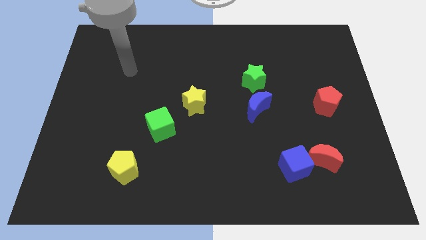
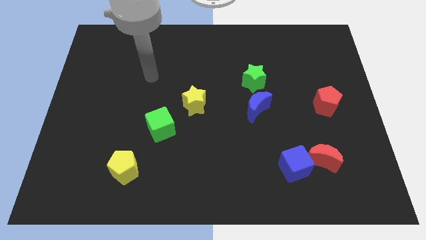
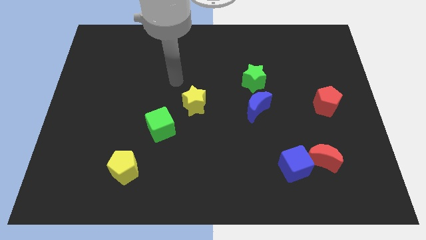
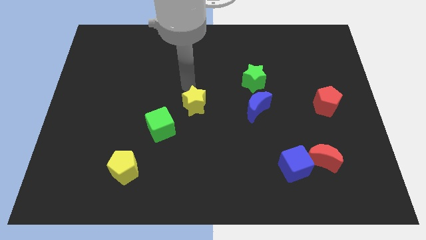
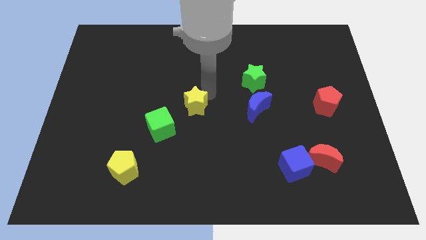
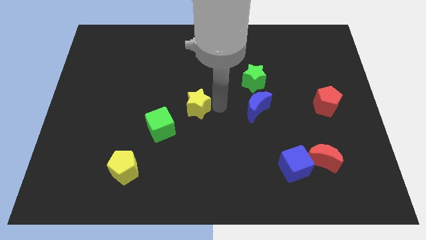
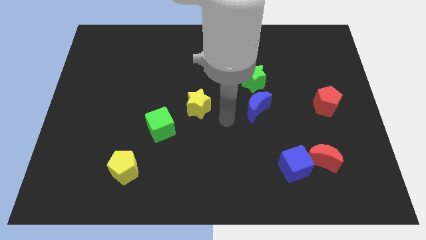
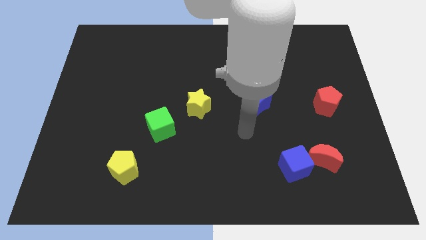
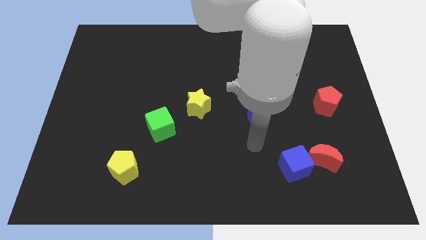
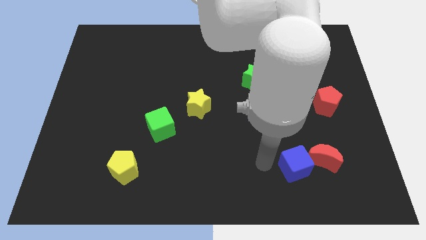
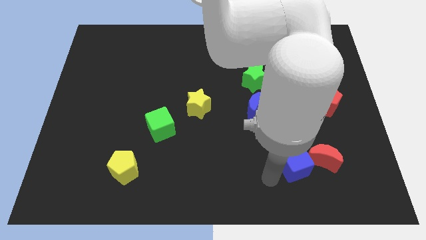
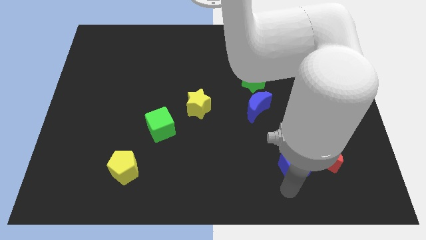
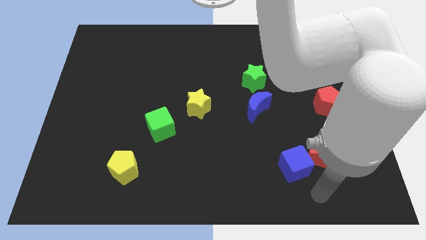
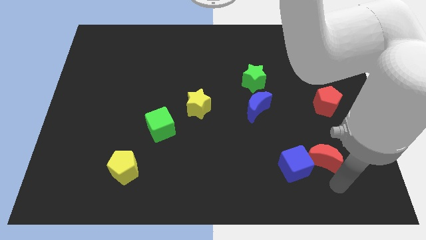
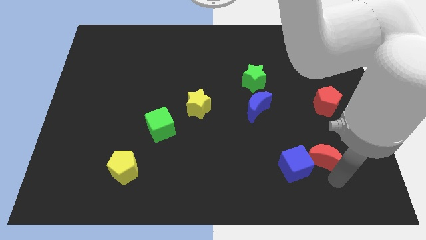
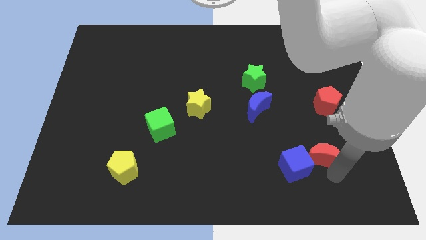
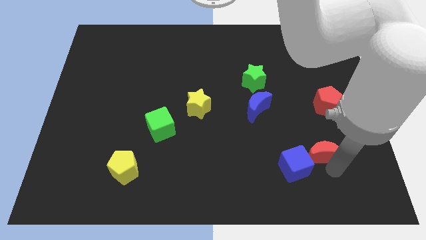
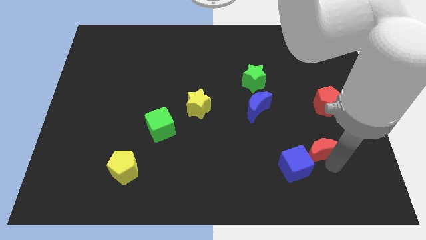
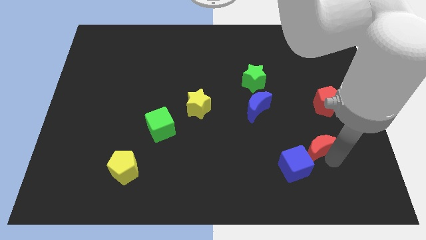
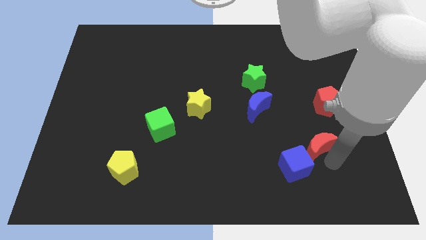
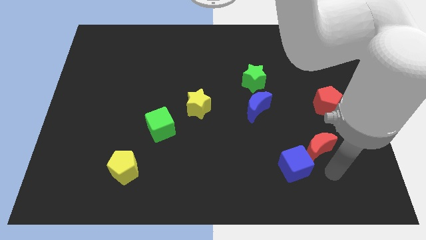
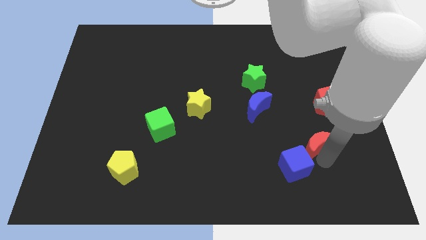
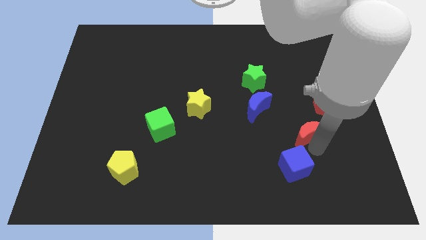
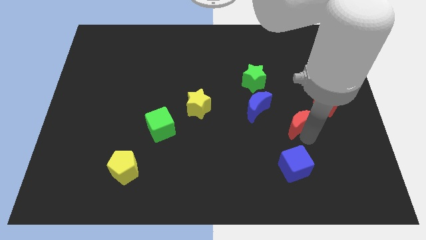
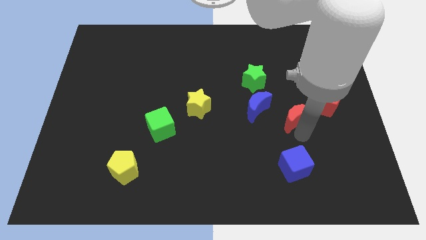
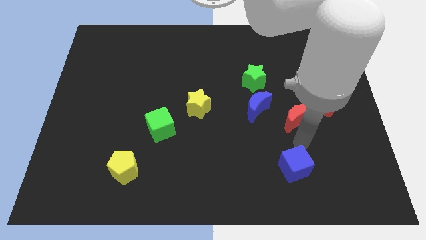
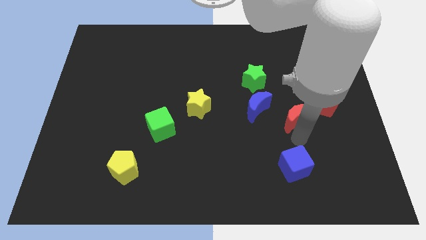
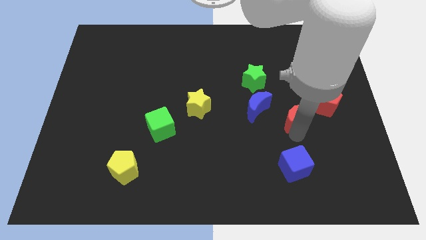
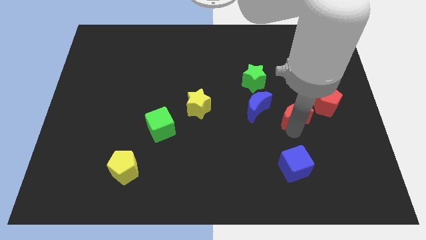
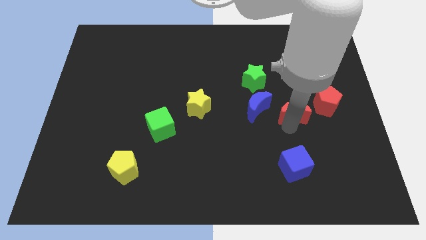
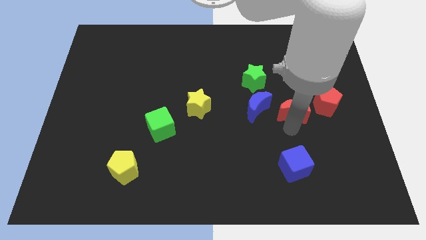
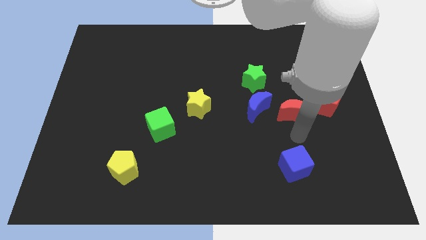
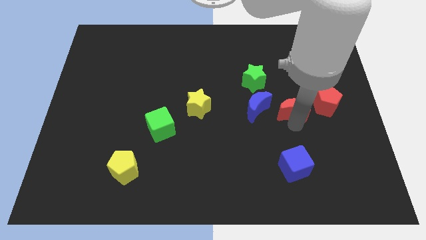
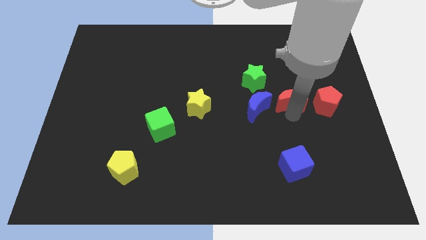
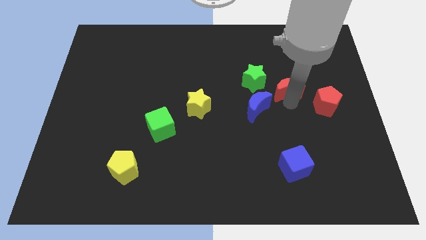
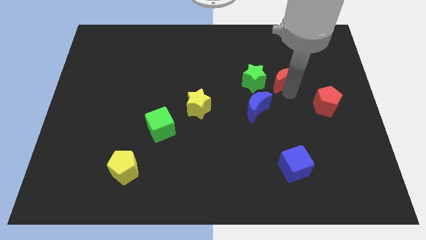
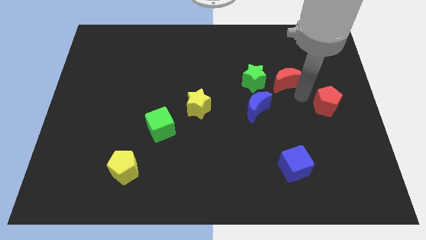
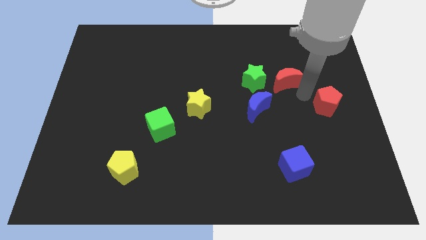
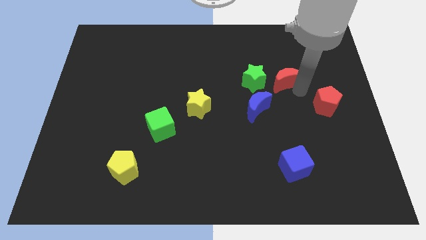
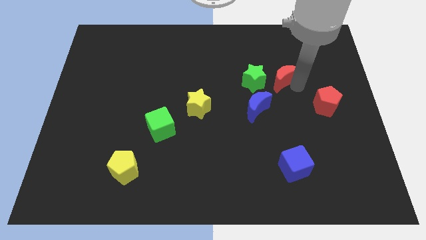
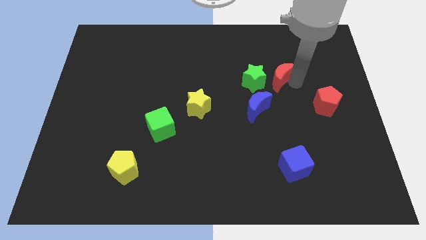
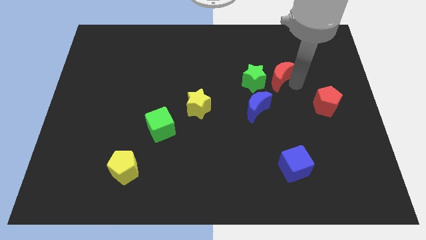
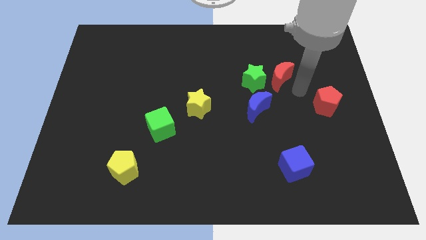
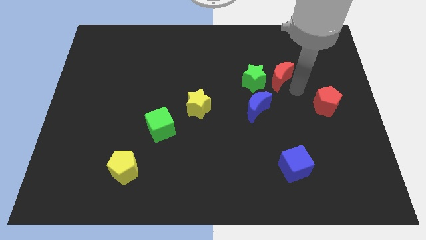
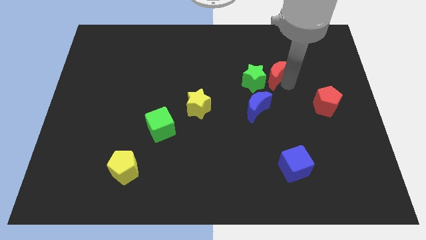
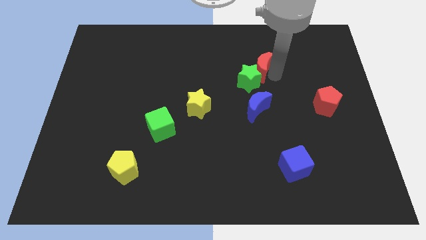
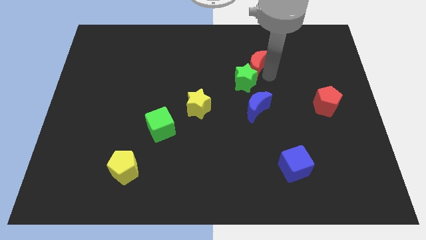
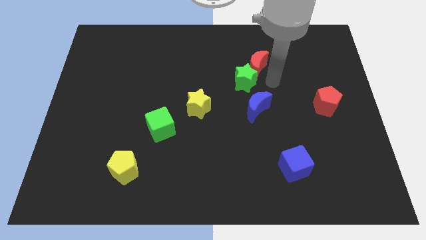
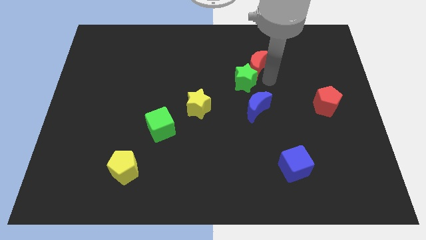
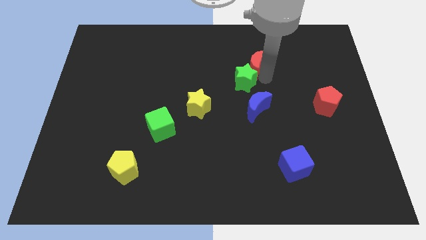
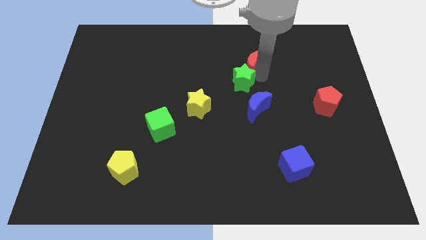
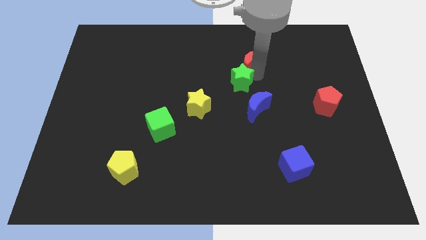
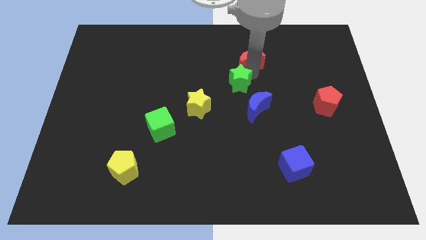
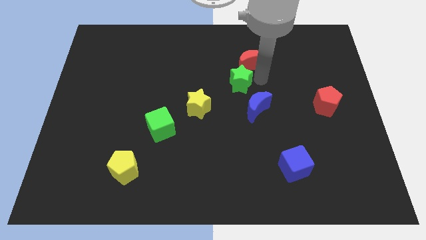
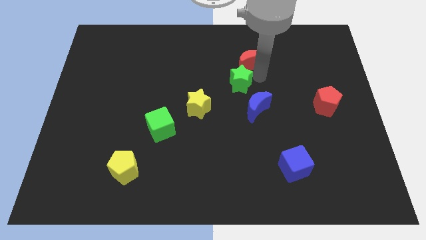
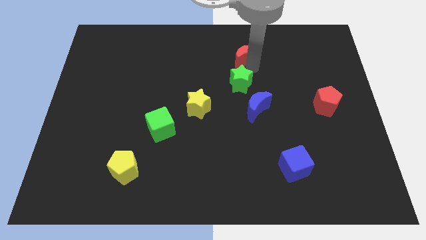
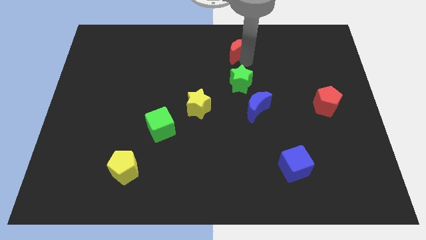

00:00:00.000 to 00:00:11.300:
push the red moon to the top side
